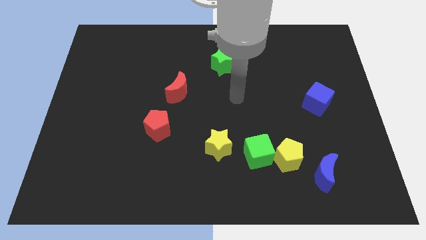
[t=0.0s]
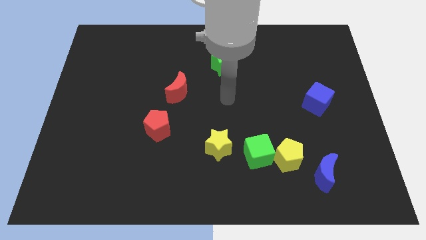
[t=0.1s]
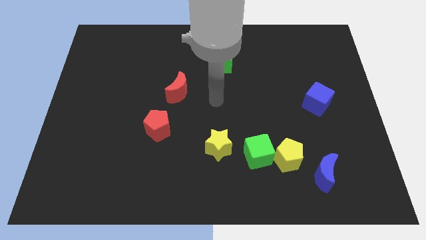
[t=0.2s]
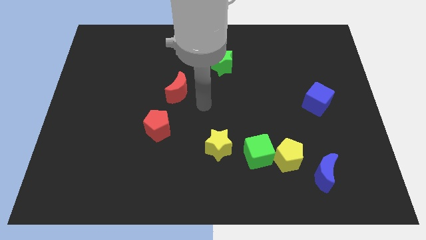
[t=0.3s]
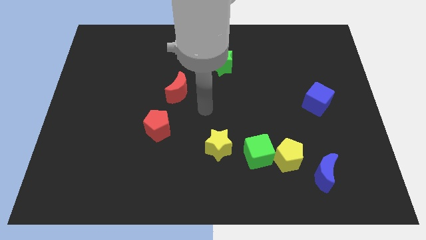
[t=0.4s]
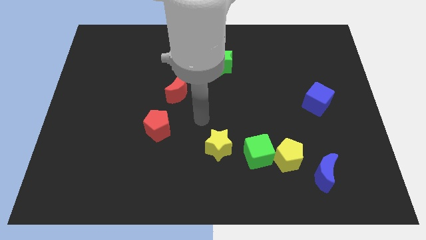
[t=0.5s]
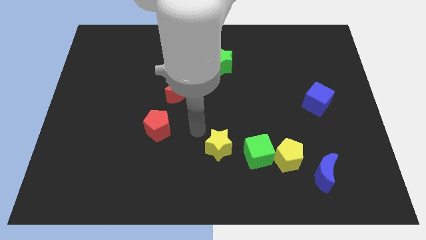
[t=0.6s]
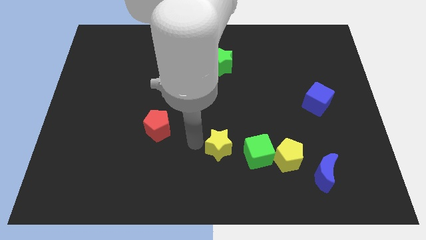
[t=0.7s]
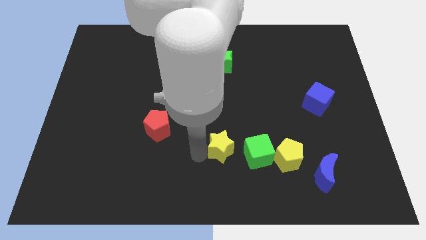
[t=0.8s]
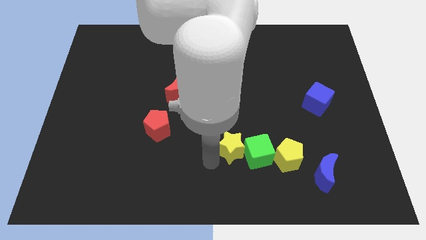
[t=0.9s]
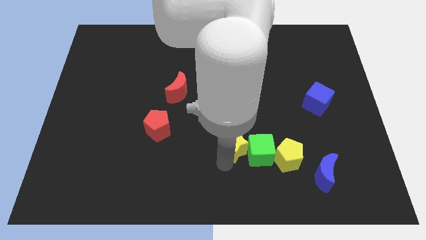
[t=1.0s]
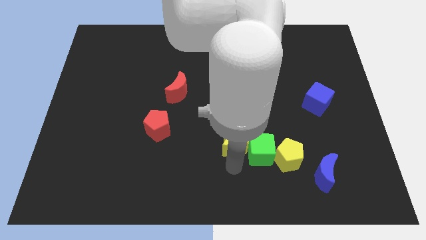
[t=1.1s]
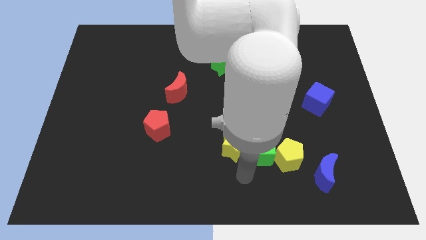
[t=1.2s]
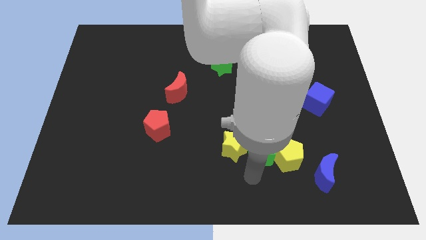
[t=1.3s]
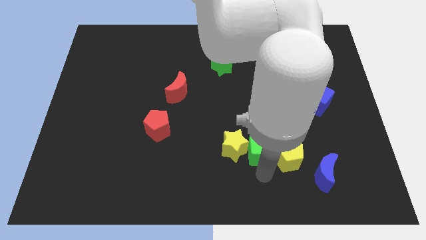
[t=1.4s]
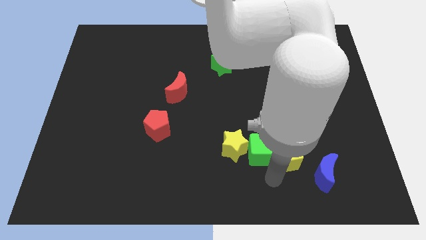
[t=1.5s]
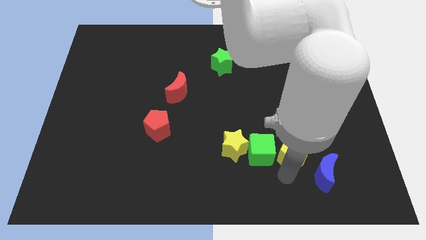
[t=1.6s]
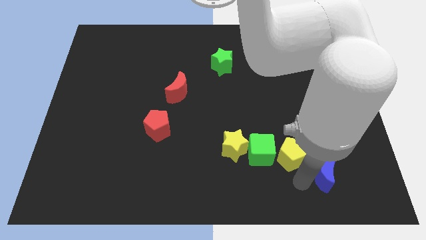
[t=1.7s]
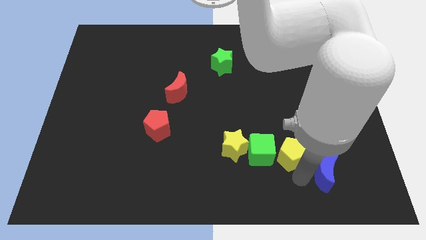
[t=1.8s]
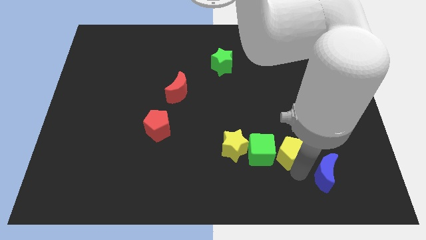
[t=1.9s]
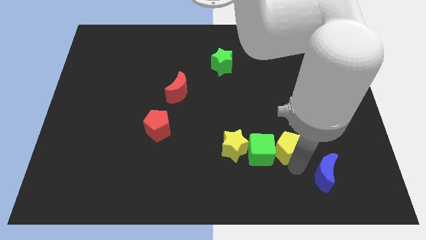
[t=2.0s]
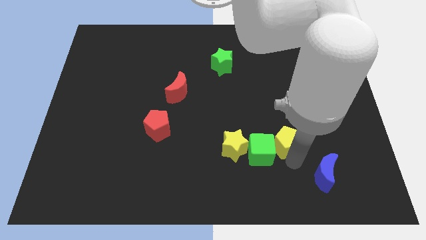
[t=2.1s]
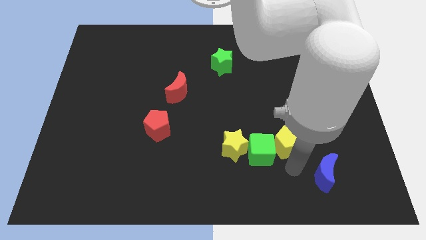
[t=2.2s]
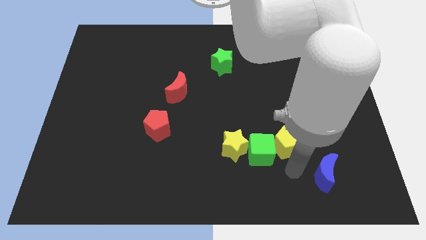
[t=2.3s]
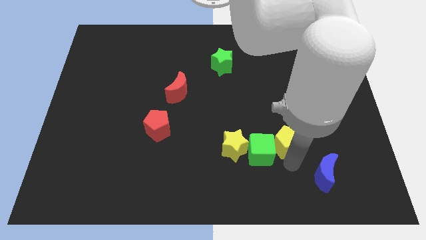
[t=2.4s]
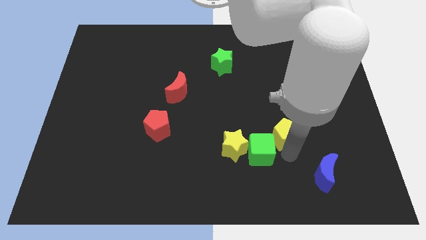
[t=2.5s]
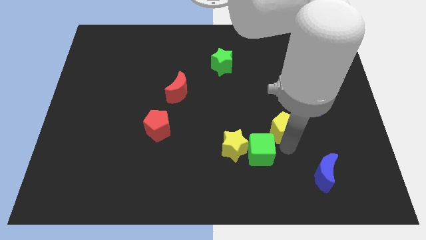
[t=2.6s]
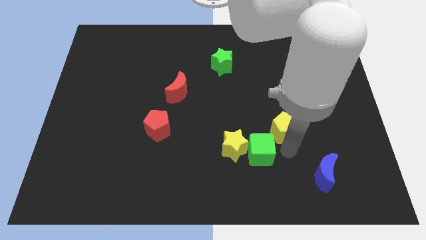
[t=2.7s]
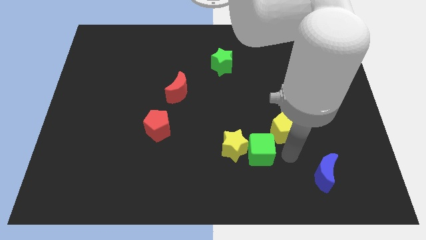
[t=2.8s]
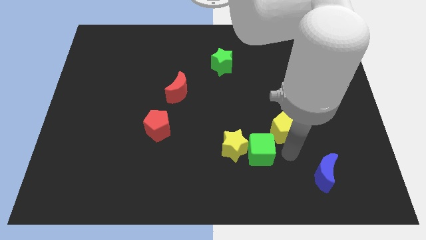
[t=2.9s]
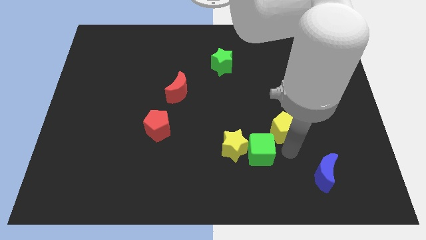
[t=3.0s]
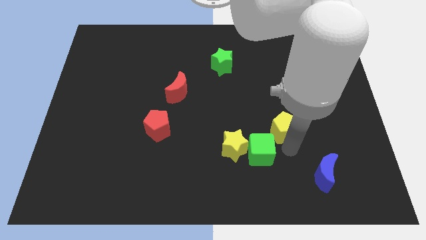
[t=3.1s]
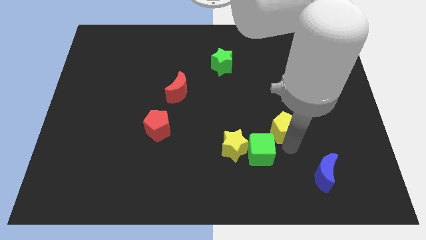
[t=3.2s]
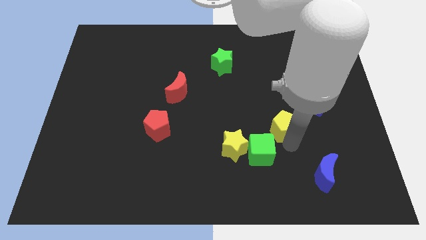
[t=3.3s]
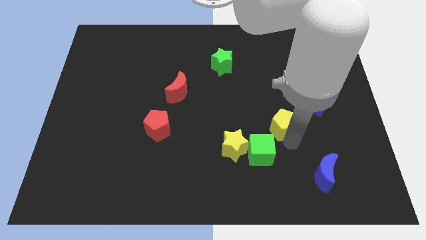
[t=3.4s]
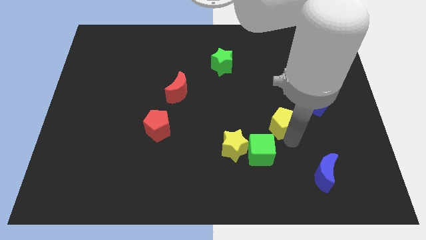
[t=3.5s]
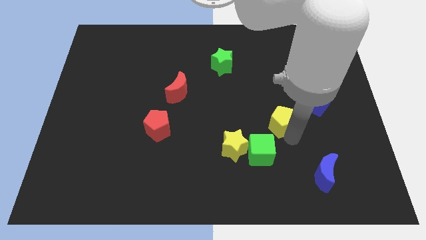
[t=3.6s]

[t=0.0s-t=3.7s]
move the yellow pentagon away from the green cube and blue moon

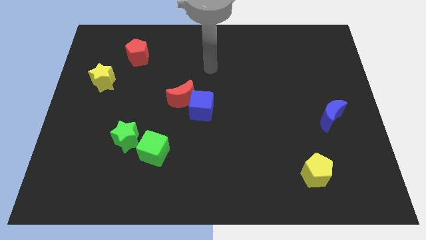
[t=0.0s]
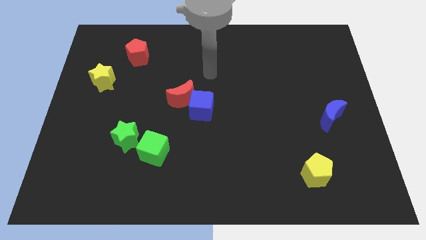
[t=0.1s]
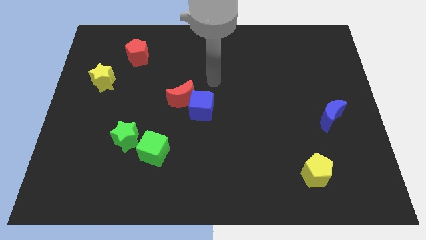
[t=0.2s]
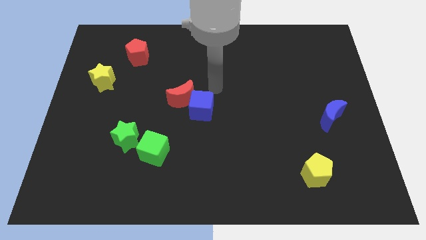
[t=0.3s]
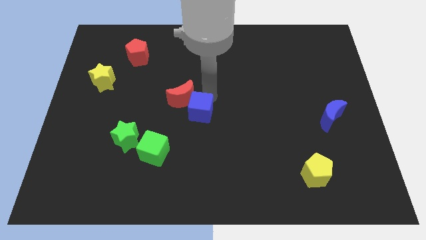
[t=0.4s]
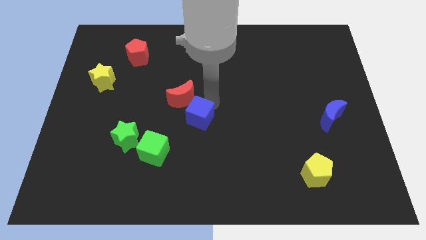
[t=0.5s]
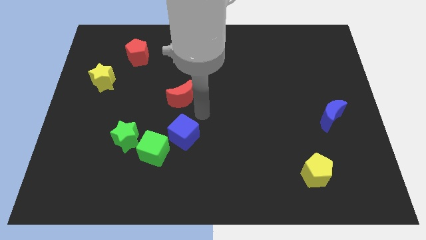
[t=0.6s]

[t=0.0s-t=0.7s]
move the red moon away from the blue cube

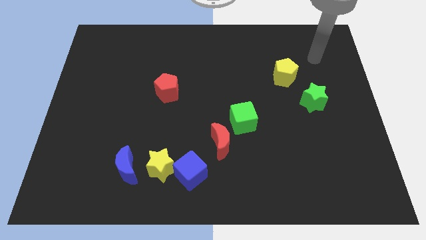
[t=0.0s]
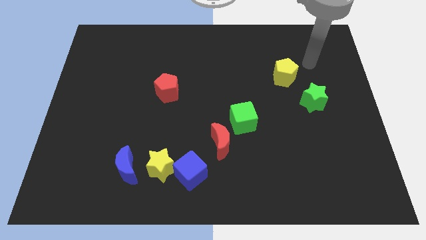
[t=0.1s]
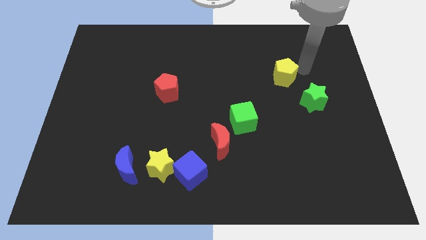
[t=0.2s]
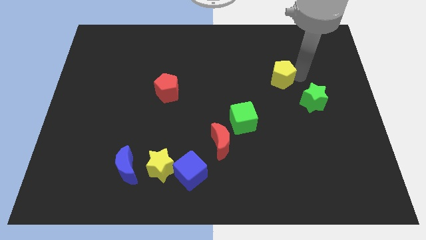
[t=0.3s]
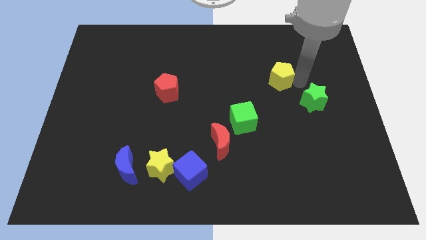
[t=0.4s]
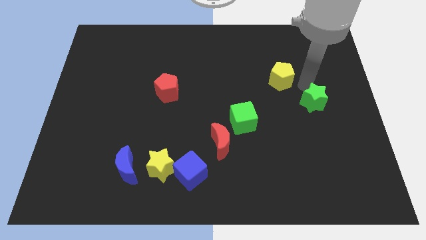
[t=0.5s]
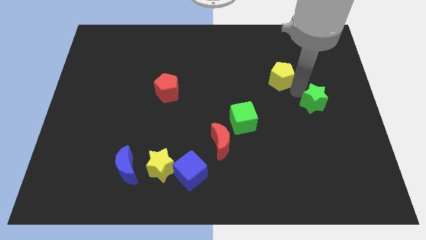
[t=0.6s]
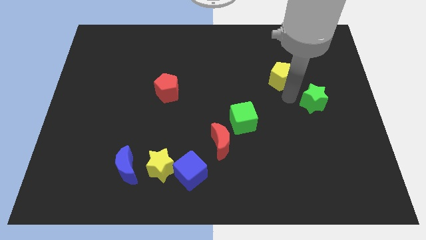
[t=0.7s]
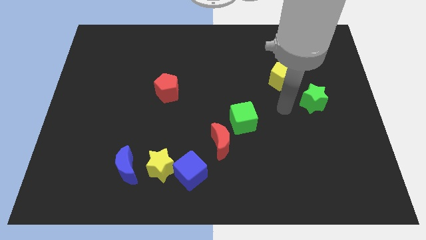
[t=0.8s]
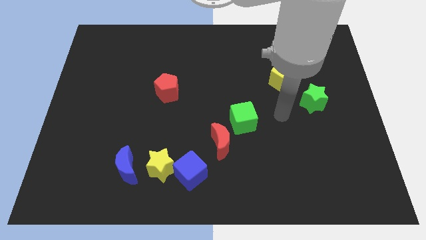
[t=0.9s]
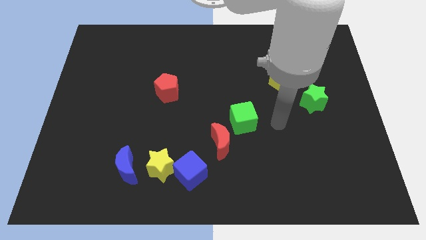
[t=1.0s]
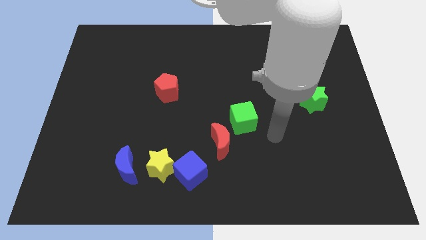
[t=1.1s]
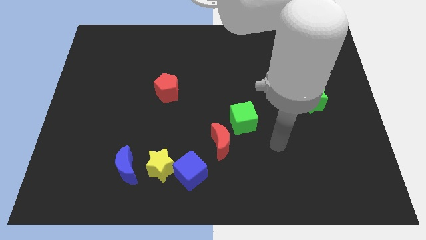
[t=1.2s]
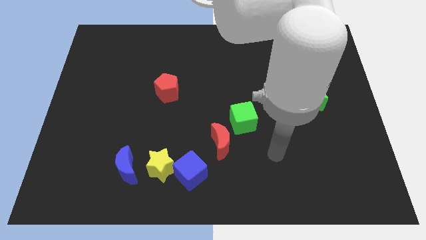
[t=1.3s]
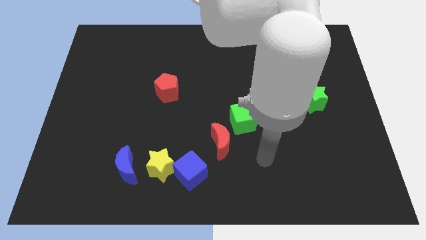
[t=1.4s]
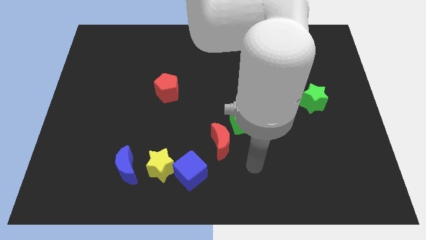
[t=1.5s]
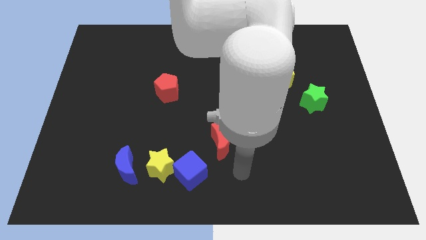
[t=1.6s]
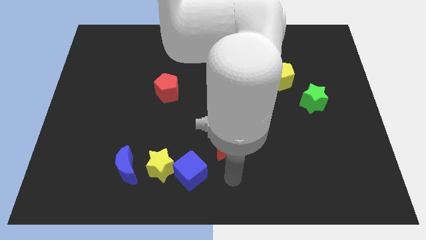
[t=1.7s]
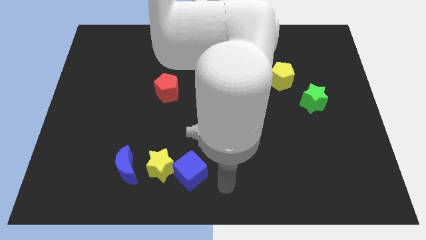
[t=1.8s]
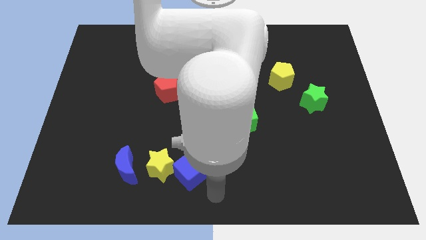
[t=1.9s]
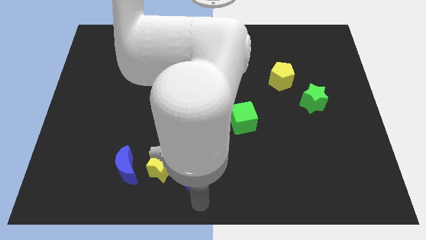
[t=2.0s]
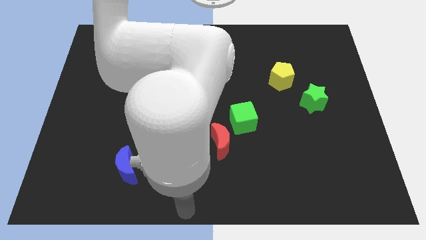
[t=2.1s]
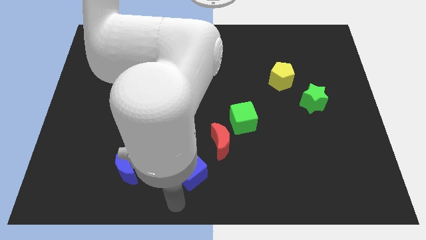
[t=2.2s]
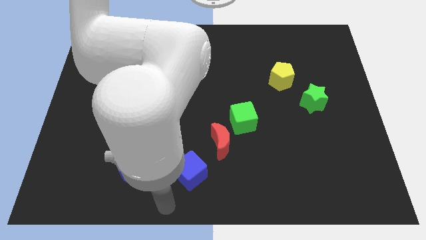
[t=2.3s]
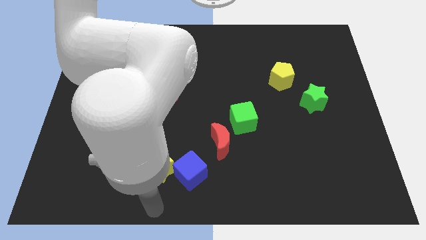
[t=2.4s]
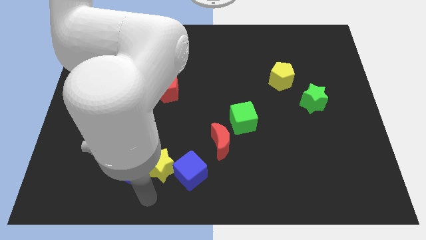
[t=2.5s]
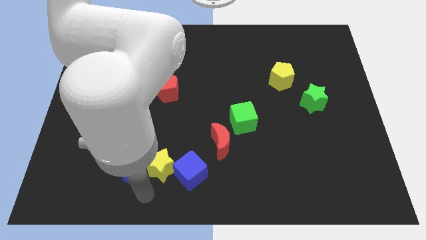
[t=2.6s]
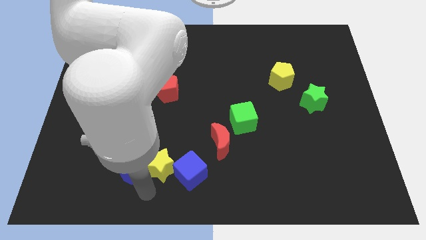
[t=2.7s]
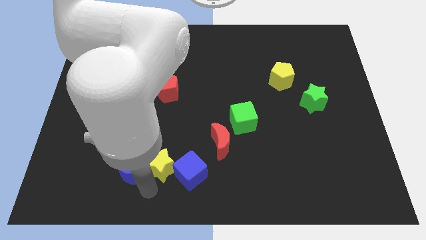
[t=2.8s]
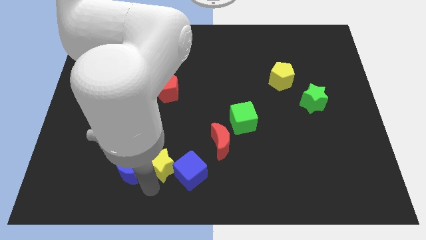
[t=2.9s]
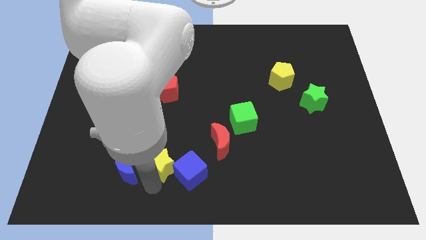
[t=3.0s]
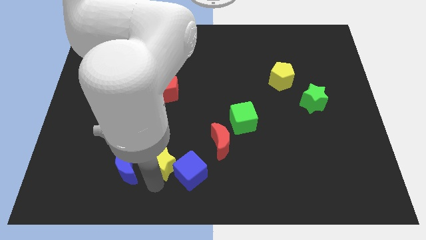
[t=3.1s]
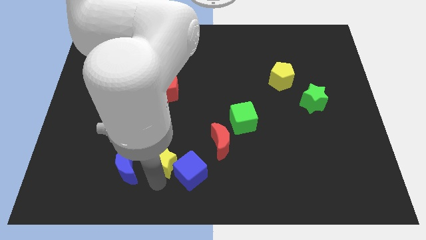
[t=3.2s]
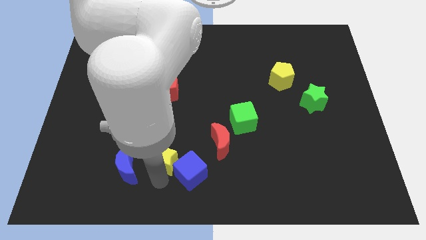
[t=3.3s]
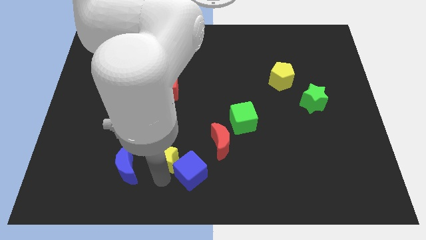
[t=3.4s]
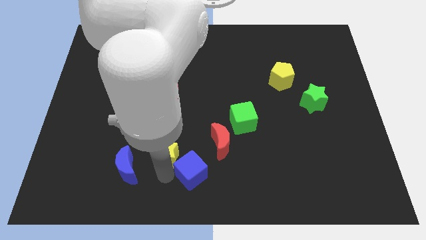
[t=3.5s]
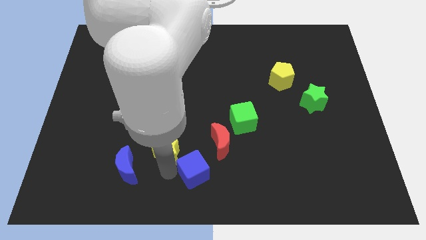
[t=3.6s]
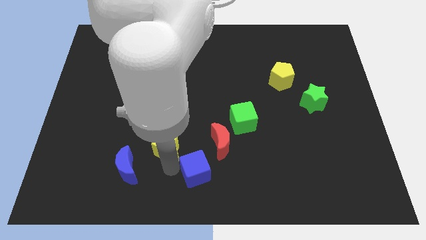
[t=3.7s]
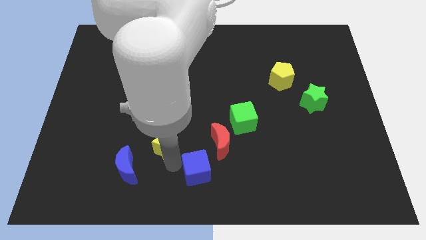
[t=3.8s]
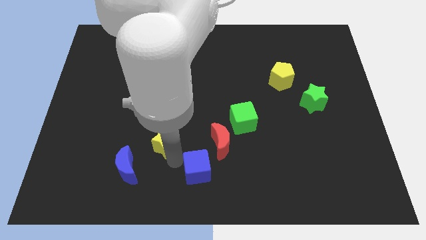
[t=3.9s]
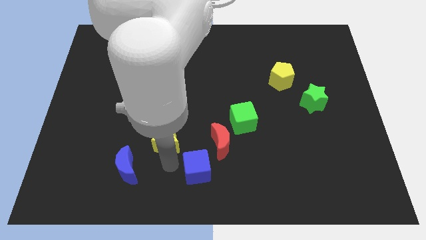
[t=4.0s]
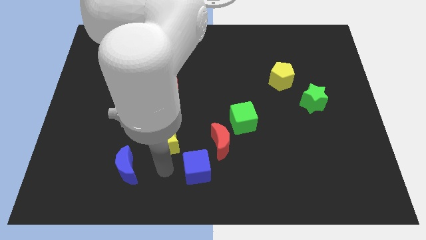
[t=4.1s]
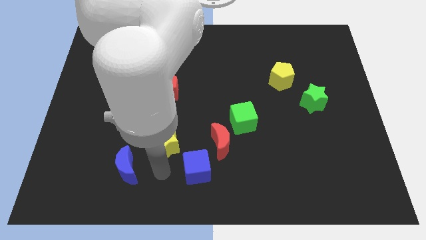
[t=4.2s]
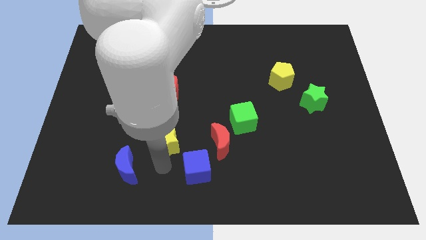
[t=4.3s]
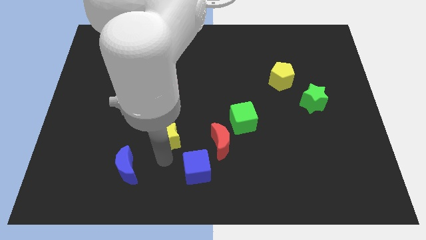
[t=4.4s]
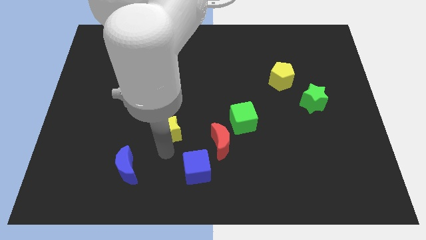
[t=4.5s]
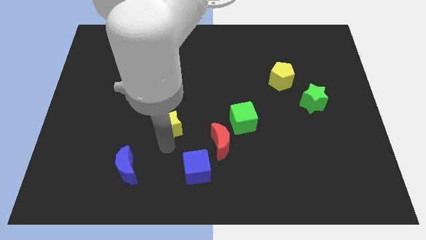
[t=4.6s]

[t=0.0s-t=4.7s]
move the yellow star away from the blue cube and blue moon

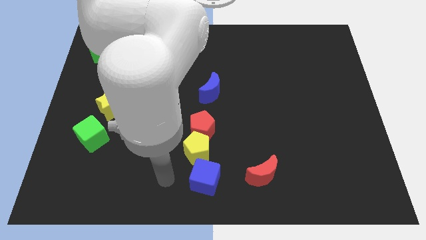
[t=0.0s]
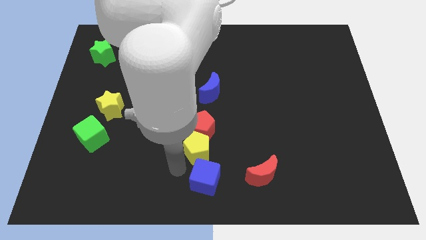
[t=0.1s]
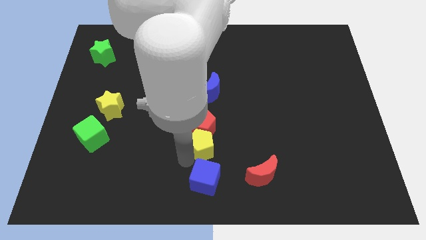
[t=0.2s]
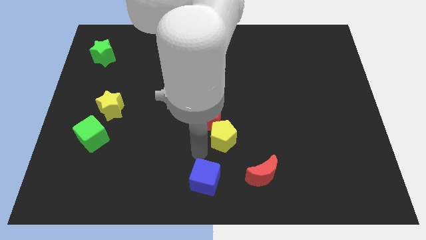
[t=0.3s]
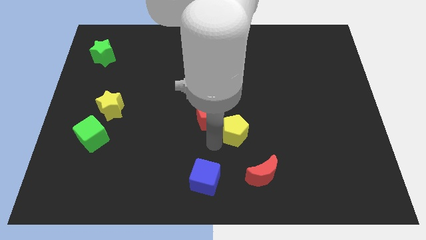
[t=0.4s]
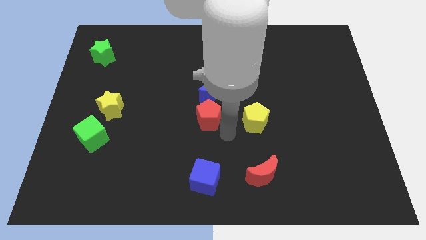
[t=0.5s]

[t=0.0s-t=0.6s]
separate the red pentagon from the yellow pentagon
